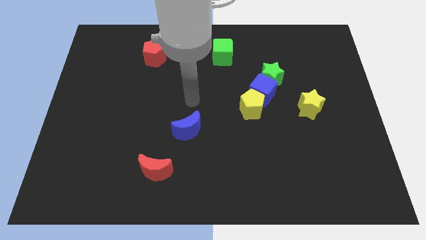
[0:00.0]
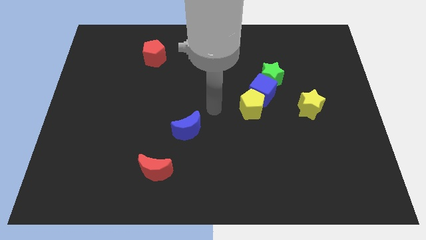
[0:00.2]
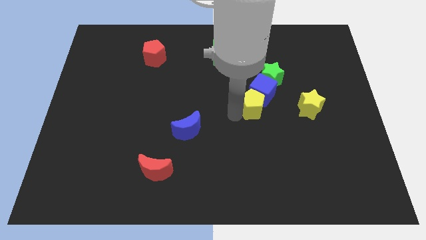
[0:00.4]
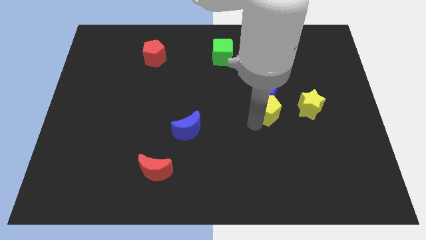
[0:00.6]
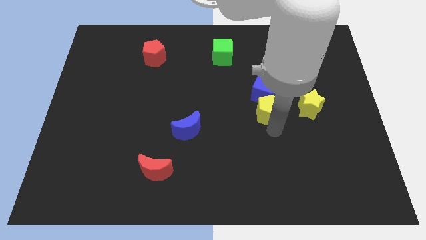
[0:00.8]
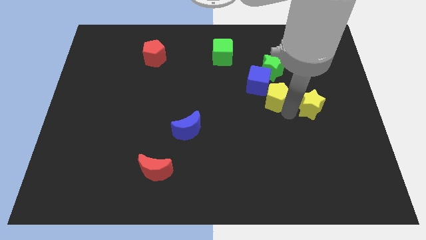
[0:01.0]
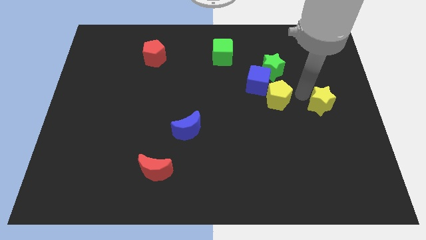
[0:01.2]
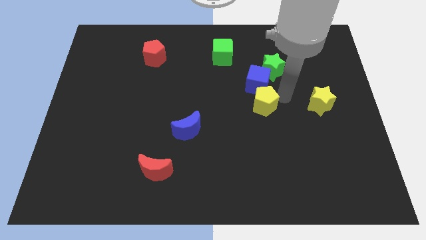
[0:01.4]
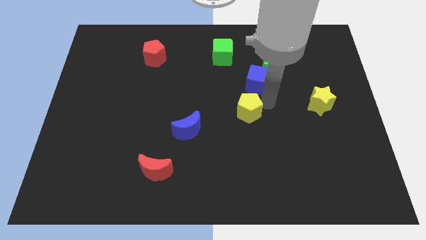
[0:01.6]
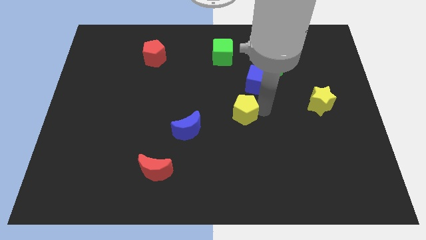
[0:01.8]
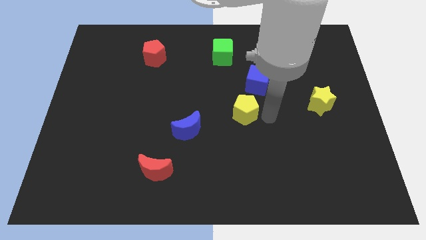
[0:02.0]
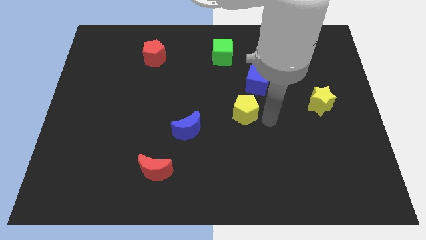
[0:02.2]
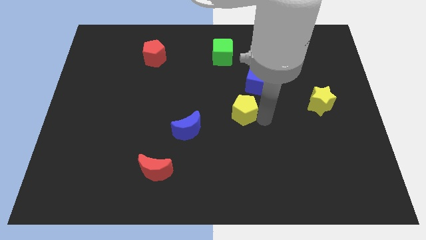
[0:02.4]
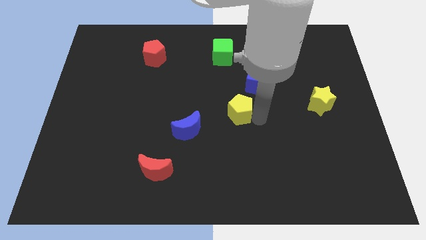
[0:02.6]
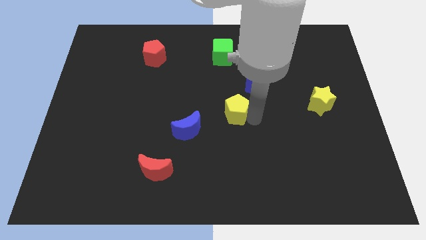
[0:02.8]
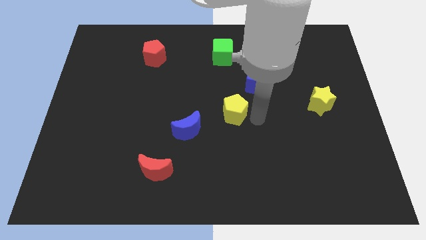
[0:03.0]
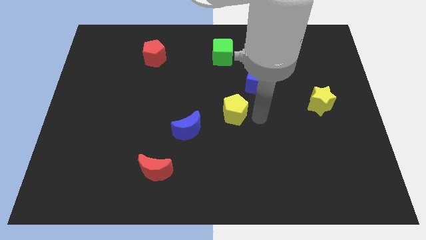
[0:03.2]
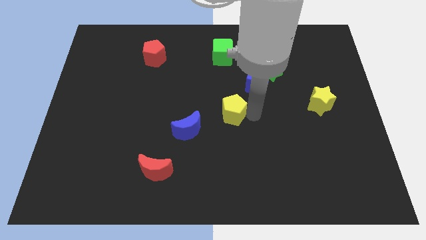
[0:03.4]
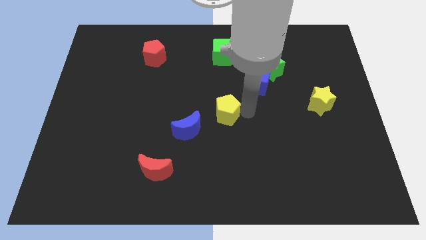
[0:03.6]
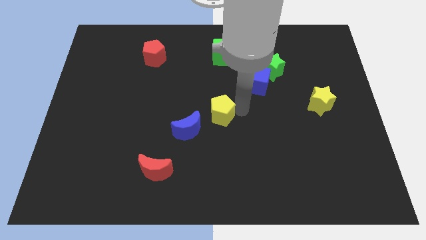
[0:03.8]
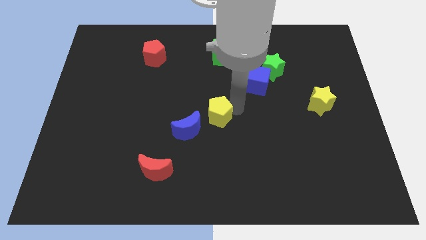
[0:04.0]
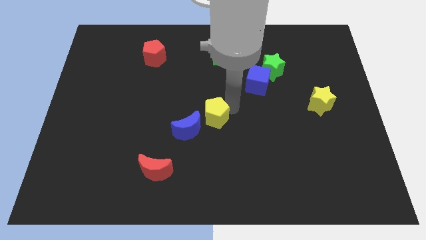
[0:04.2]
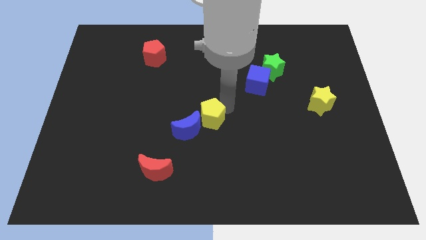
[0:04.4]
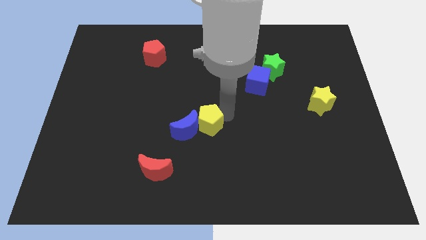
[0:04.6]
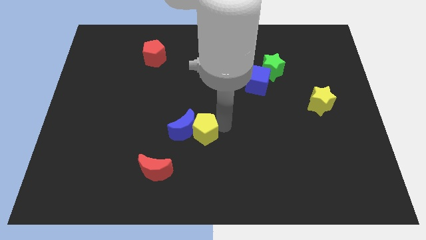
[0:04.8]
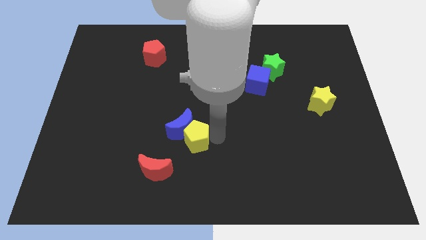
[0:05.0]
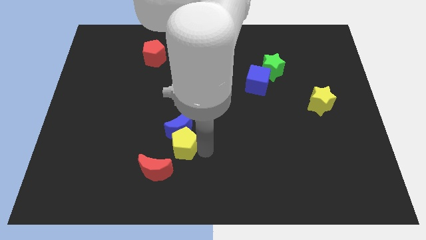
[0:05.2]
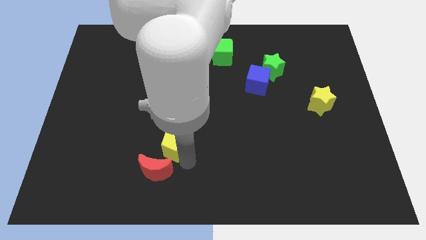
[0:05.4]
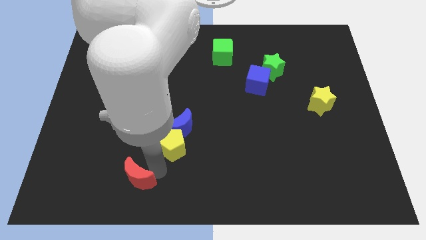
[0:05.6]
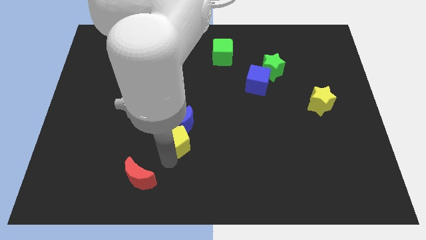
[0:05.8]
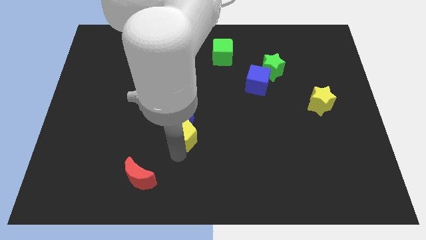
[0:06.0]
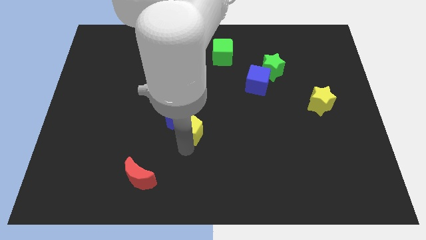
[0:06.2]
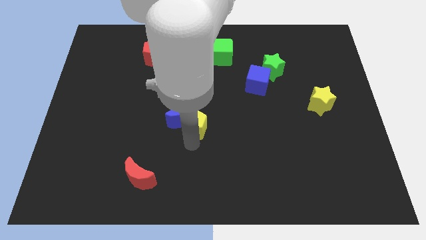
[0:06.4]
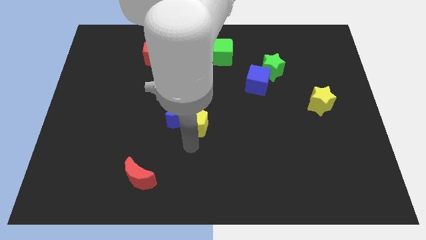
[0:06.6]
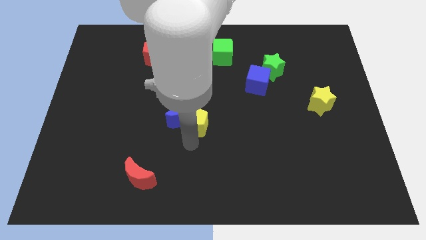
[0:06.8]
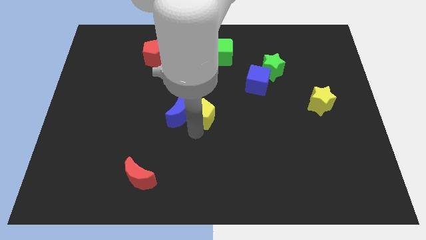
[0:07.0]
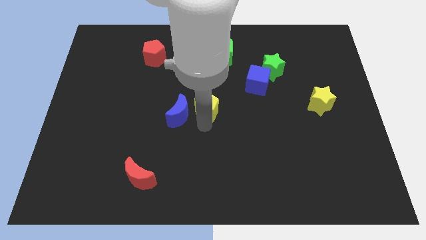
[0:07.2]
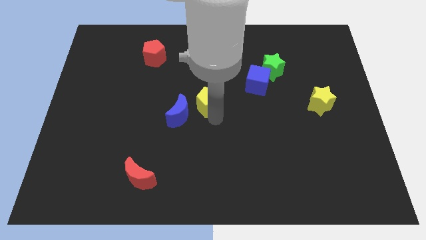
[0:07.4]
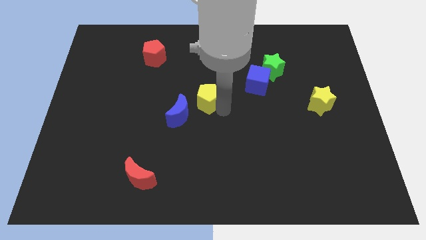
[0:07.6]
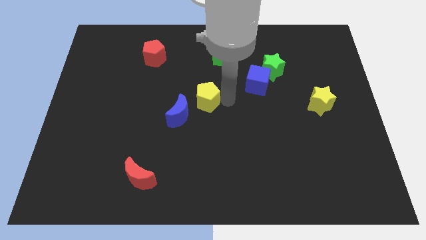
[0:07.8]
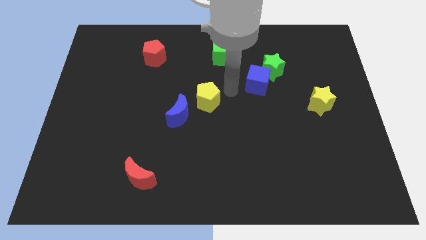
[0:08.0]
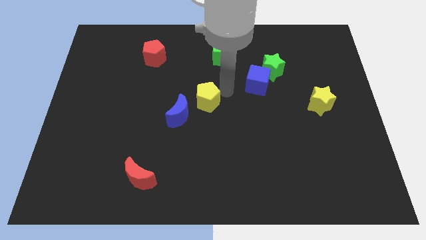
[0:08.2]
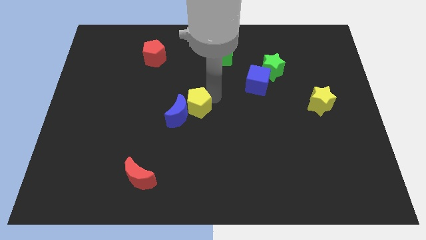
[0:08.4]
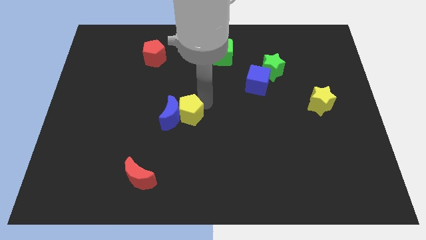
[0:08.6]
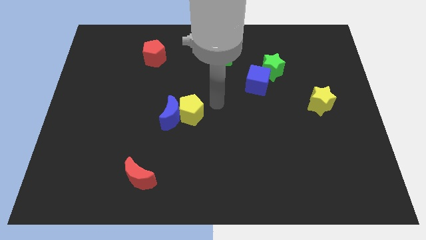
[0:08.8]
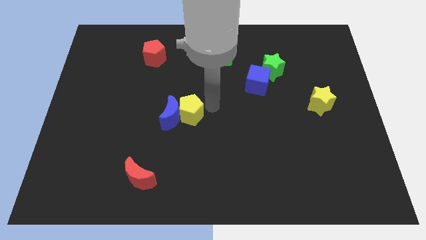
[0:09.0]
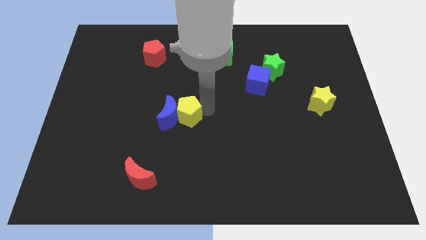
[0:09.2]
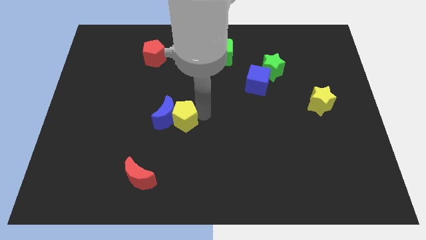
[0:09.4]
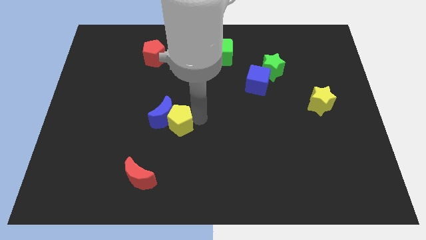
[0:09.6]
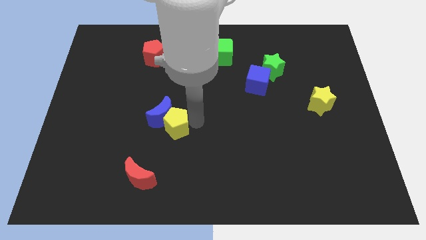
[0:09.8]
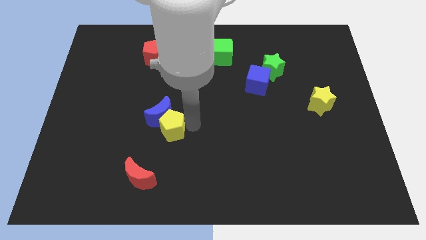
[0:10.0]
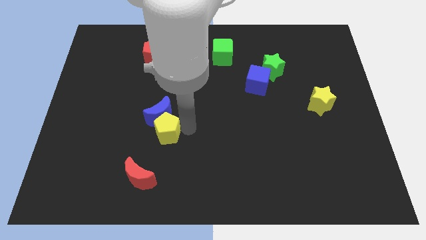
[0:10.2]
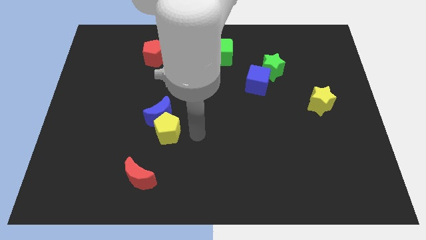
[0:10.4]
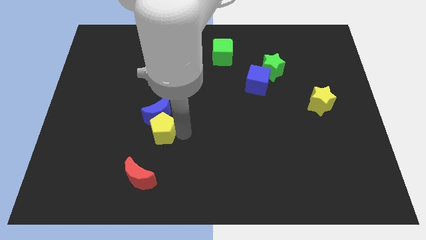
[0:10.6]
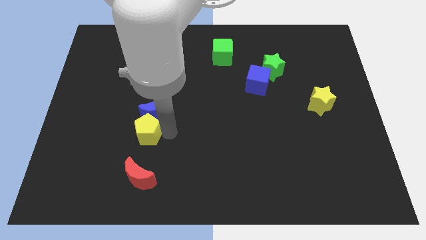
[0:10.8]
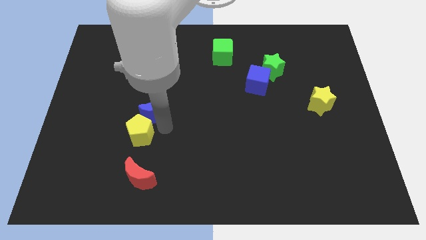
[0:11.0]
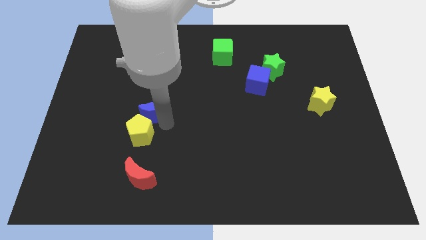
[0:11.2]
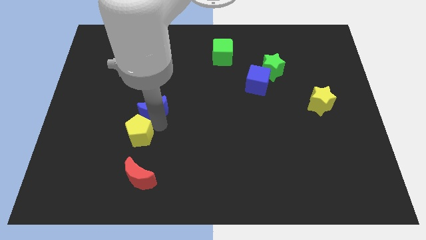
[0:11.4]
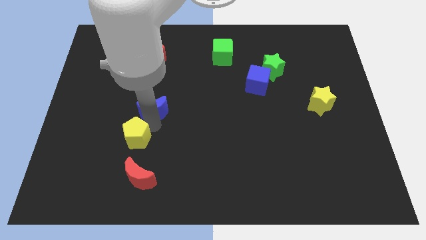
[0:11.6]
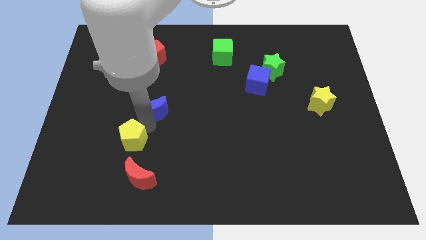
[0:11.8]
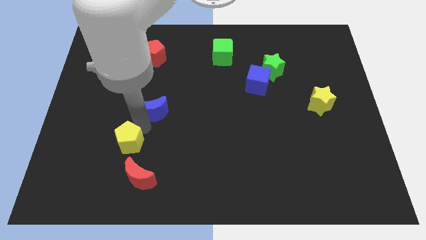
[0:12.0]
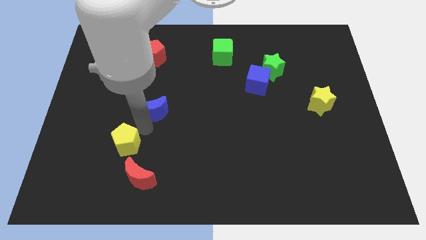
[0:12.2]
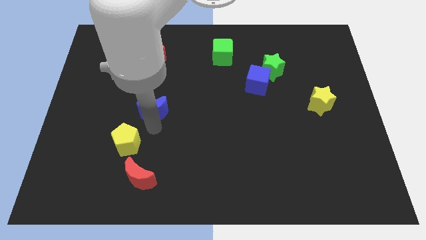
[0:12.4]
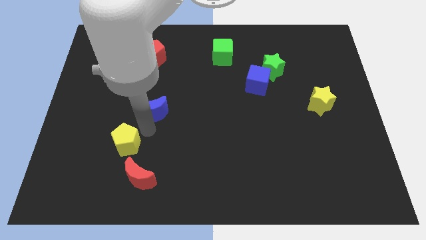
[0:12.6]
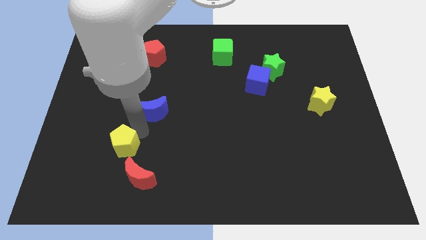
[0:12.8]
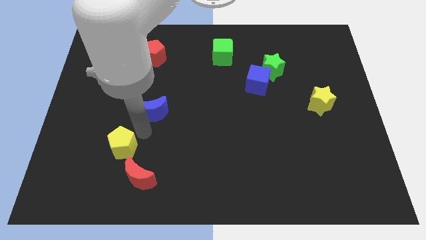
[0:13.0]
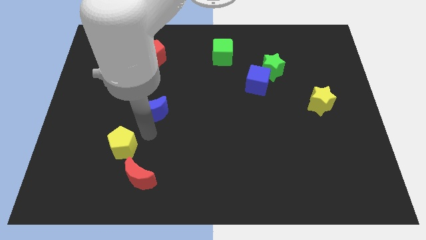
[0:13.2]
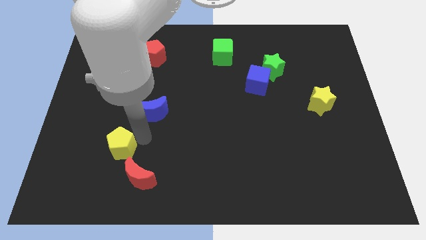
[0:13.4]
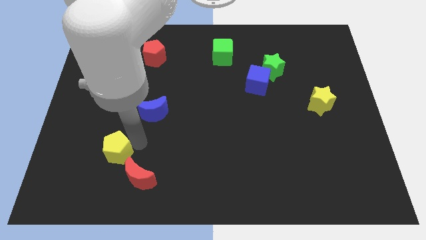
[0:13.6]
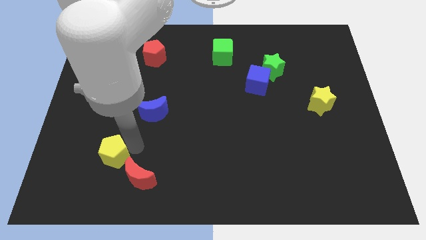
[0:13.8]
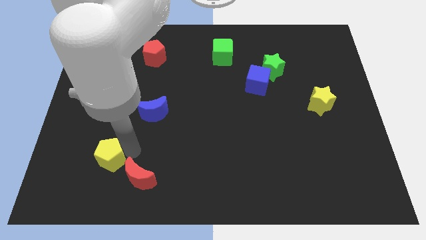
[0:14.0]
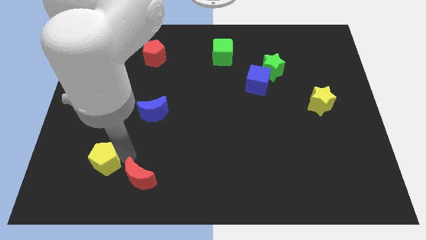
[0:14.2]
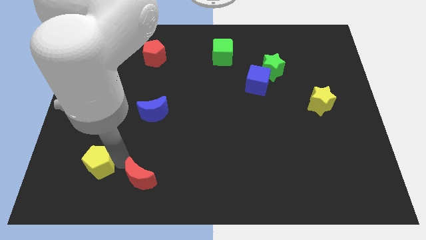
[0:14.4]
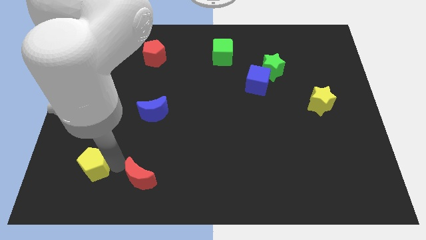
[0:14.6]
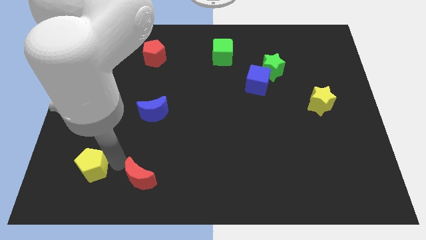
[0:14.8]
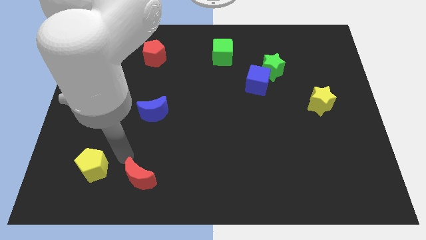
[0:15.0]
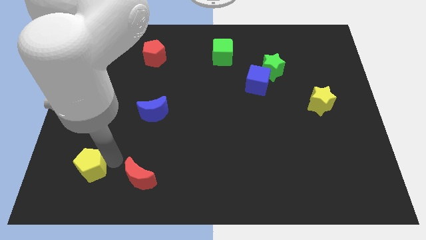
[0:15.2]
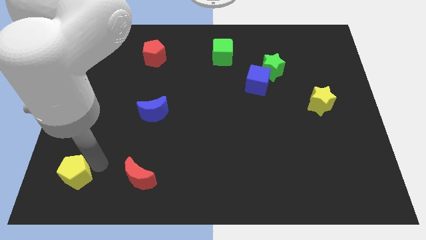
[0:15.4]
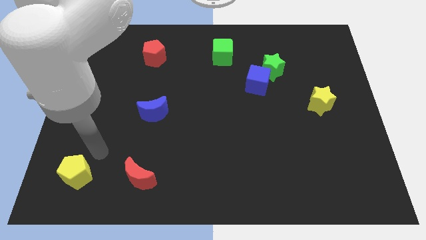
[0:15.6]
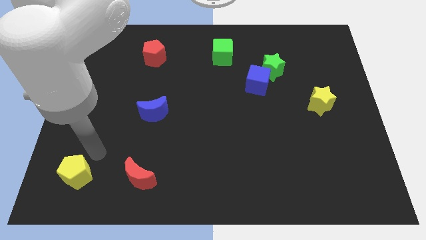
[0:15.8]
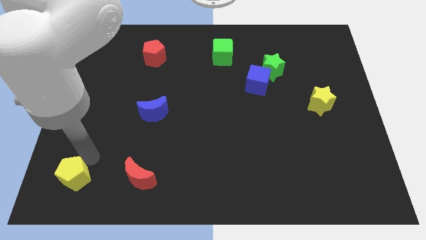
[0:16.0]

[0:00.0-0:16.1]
slide the yellow pentagon to the bottom left corner
